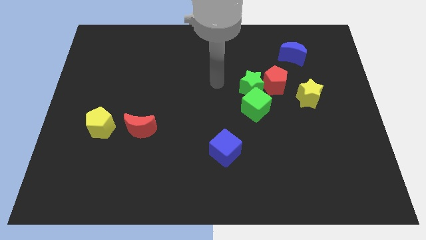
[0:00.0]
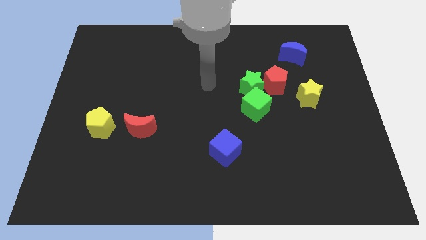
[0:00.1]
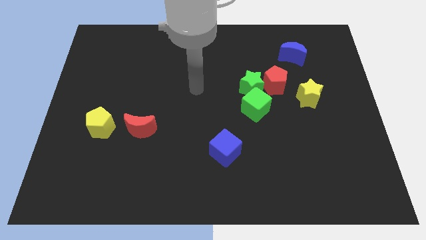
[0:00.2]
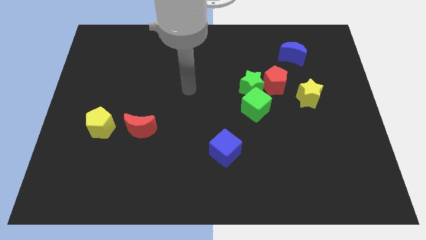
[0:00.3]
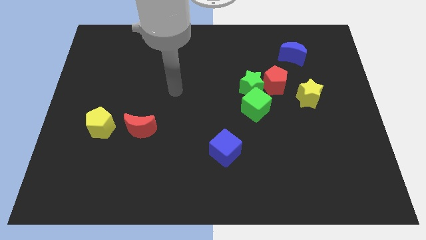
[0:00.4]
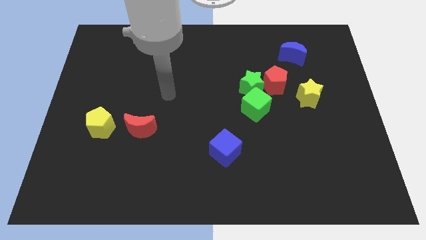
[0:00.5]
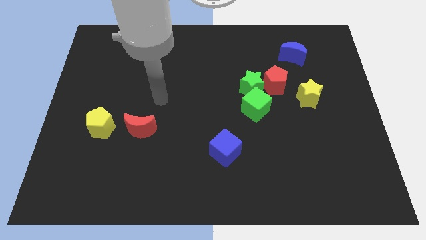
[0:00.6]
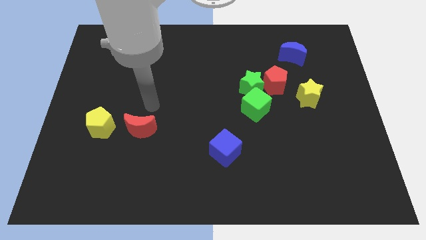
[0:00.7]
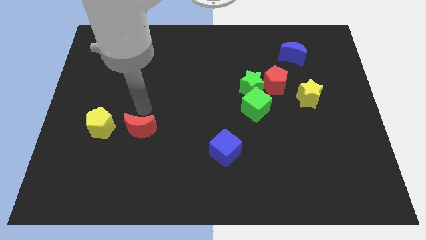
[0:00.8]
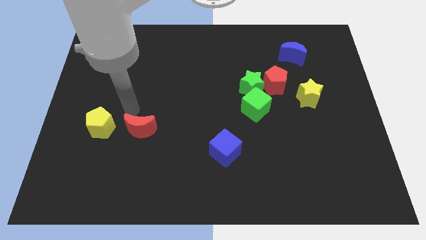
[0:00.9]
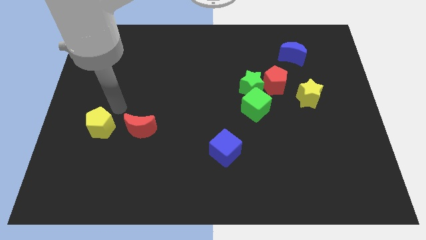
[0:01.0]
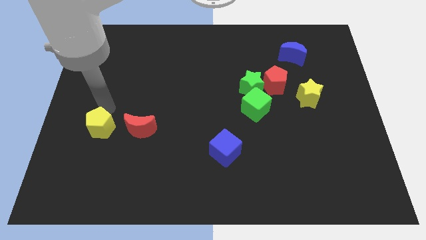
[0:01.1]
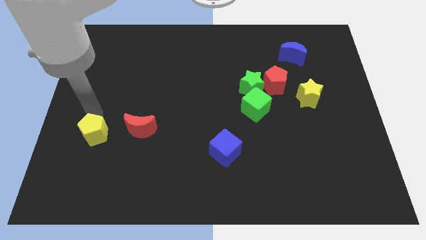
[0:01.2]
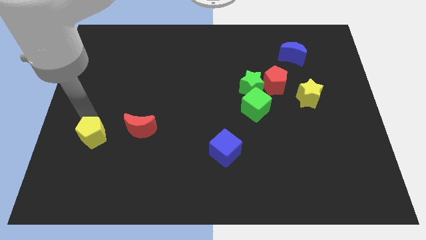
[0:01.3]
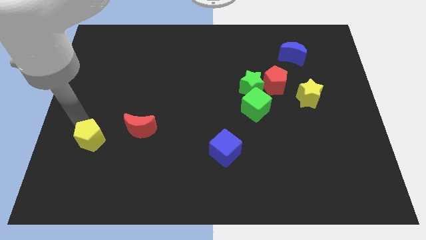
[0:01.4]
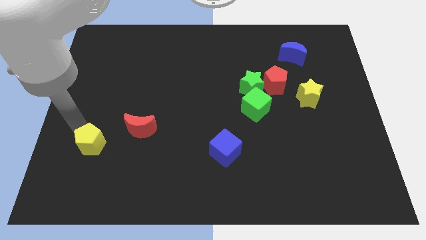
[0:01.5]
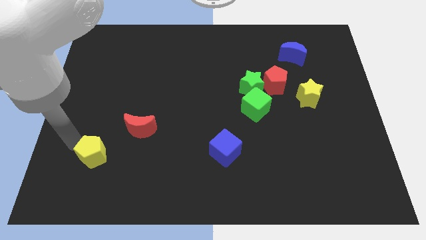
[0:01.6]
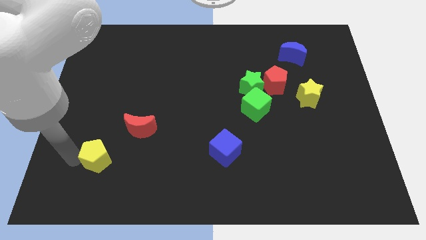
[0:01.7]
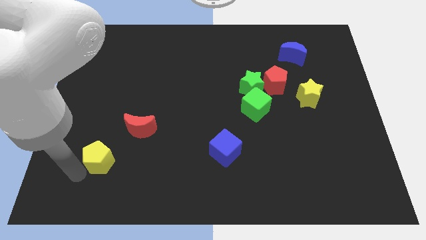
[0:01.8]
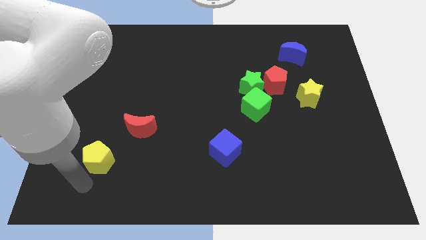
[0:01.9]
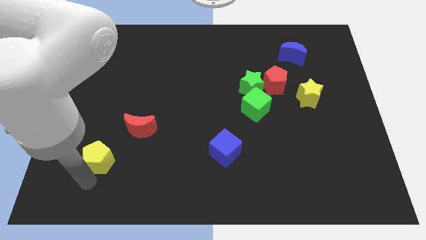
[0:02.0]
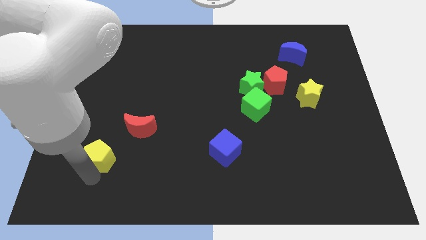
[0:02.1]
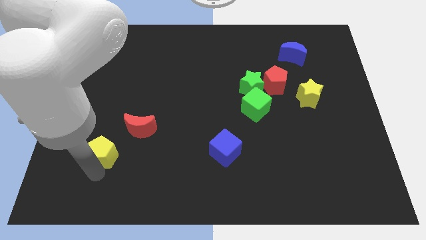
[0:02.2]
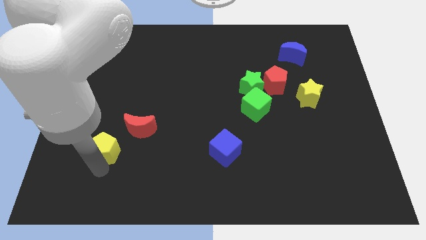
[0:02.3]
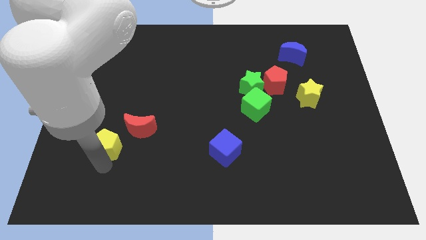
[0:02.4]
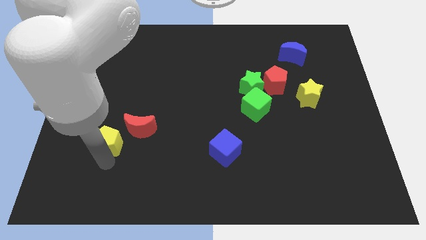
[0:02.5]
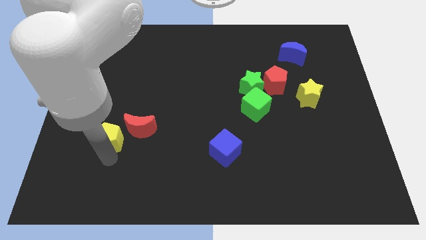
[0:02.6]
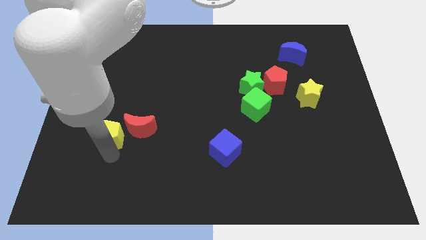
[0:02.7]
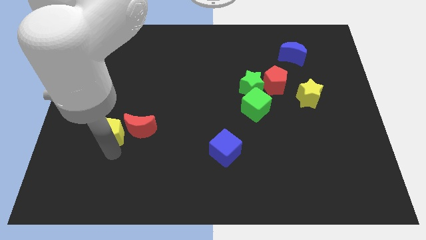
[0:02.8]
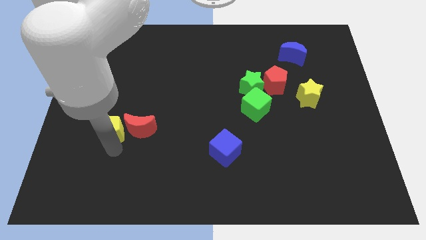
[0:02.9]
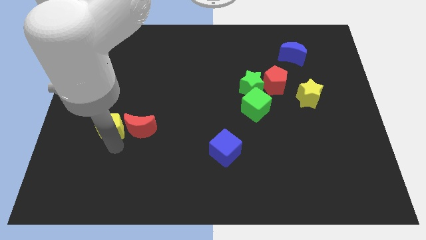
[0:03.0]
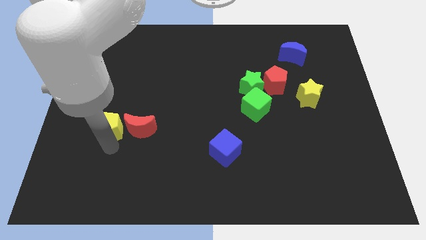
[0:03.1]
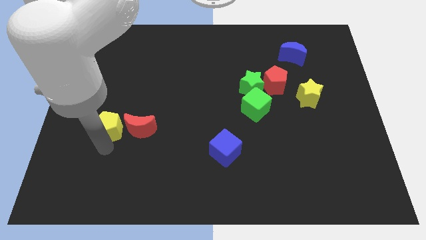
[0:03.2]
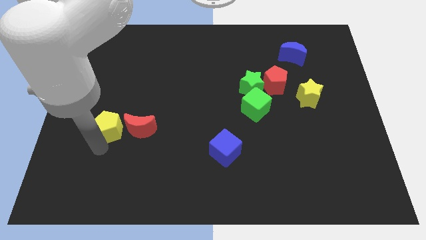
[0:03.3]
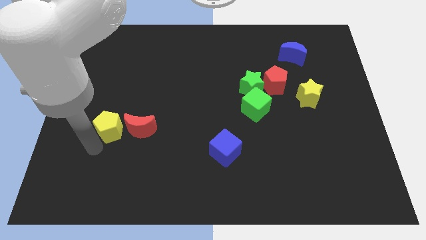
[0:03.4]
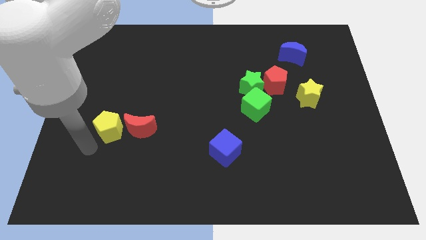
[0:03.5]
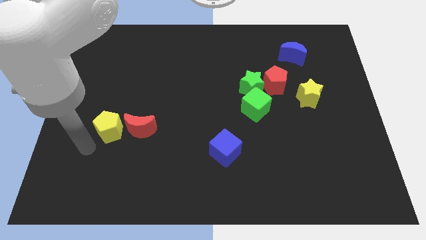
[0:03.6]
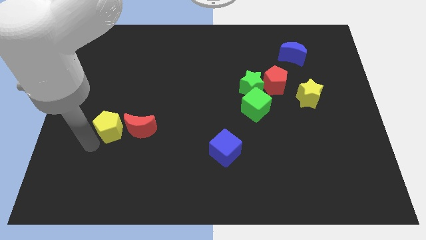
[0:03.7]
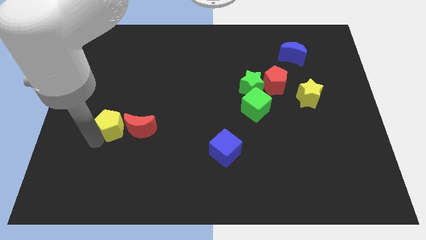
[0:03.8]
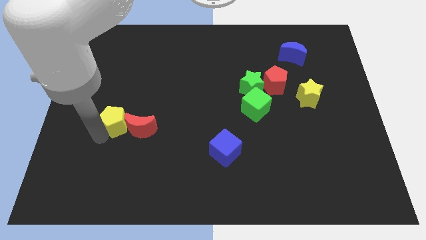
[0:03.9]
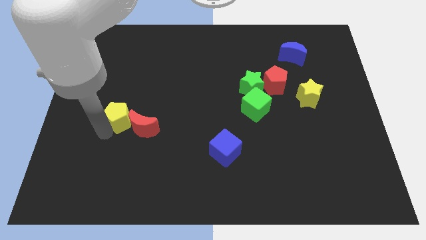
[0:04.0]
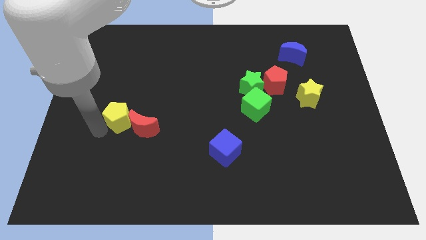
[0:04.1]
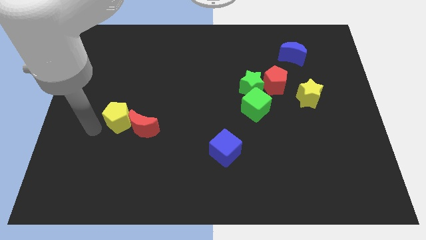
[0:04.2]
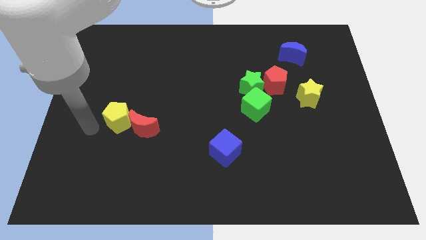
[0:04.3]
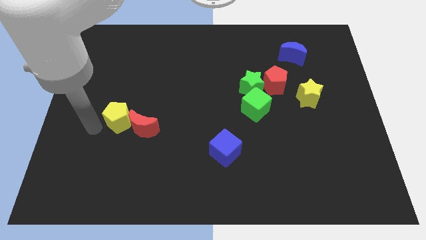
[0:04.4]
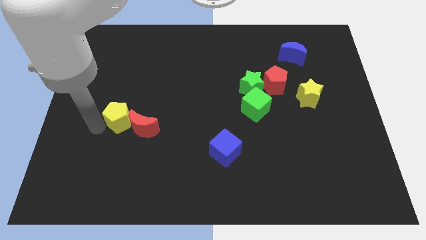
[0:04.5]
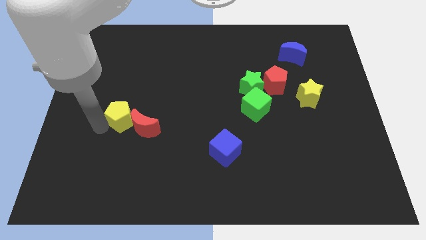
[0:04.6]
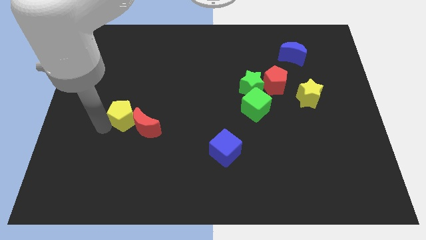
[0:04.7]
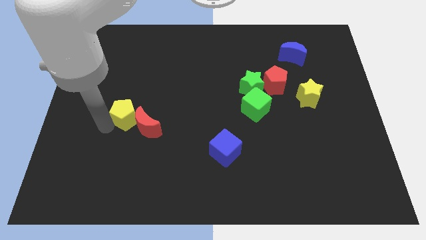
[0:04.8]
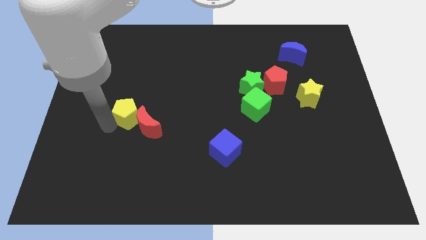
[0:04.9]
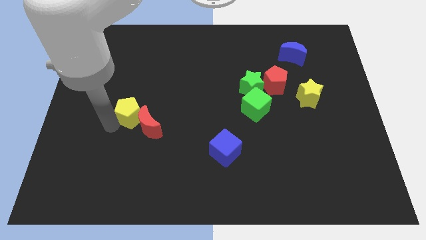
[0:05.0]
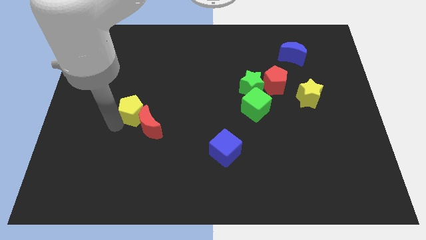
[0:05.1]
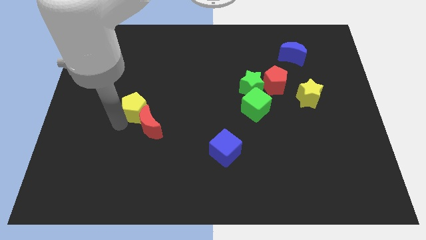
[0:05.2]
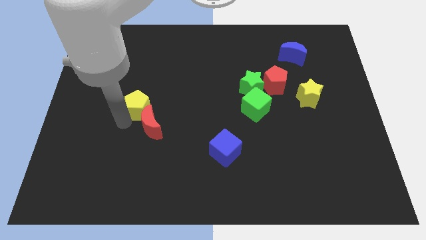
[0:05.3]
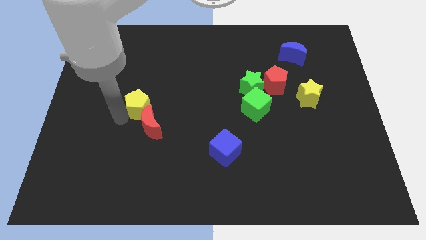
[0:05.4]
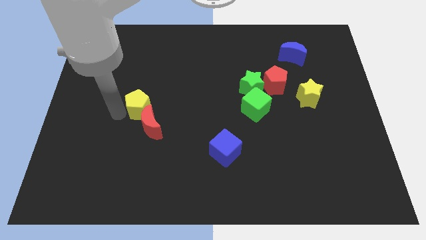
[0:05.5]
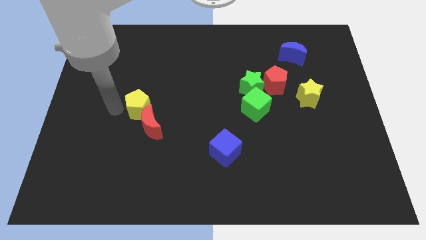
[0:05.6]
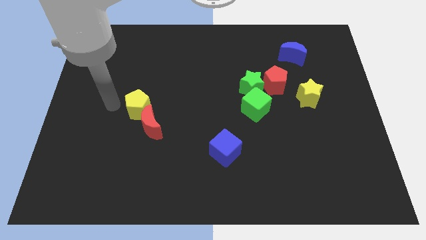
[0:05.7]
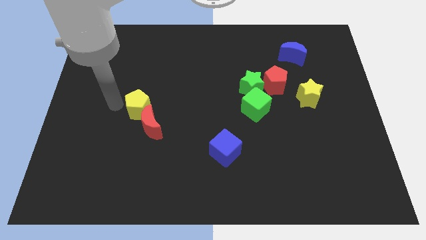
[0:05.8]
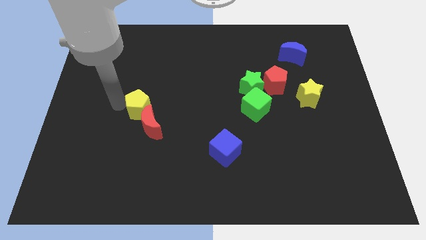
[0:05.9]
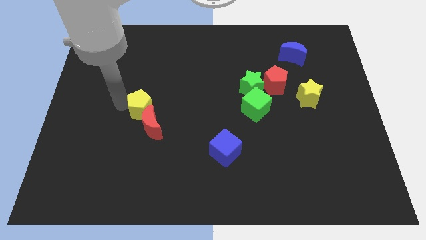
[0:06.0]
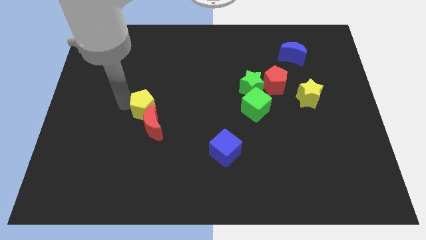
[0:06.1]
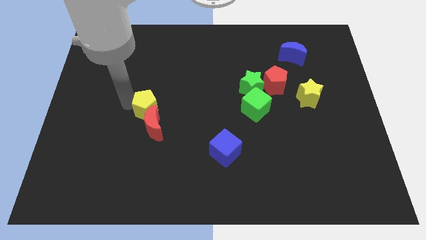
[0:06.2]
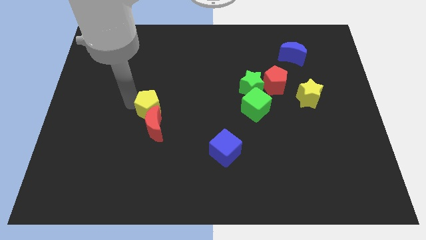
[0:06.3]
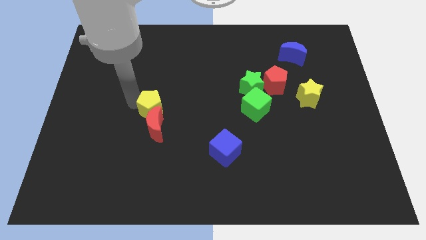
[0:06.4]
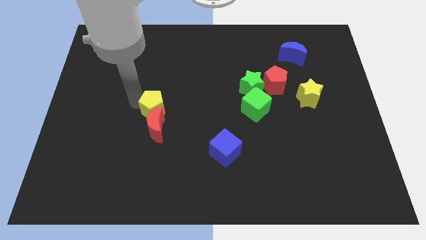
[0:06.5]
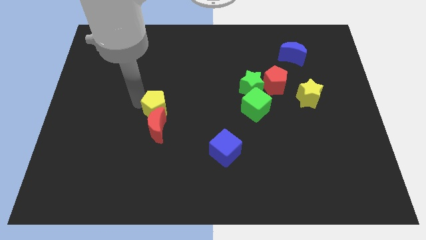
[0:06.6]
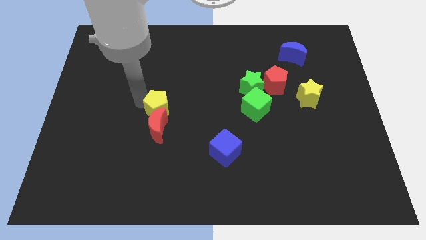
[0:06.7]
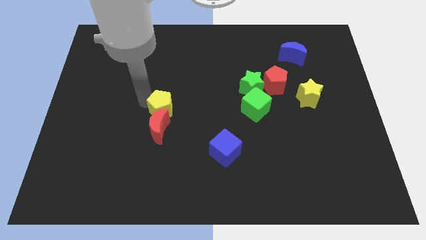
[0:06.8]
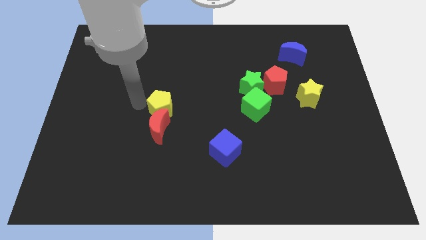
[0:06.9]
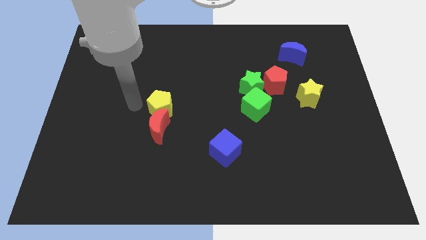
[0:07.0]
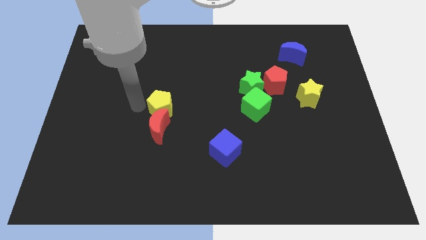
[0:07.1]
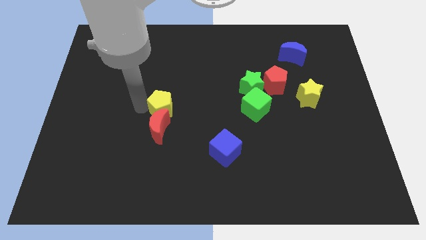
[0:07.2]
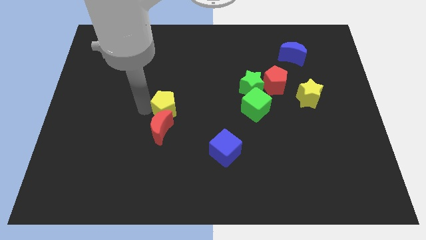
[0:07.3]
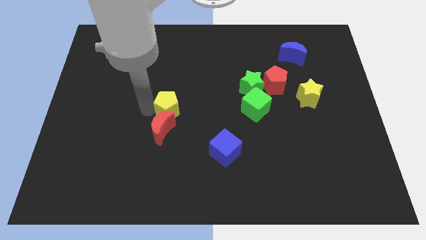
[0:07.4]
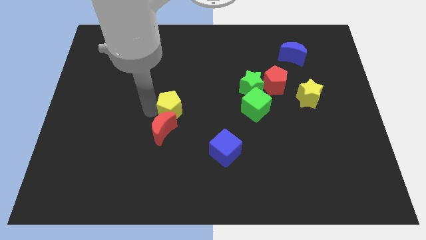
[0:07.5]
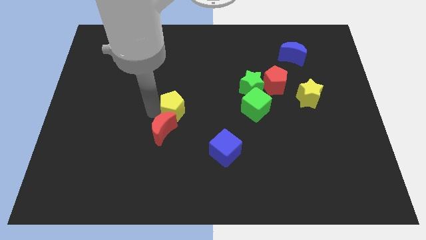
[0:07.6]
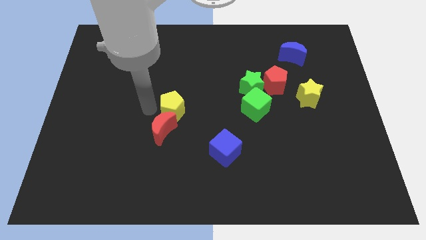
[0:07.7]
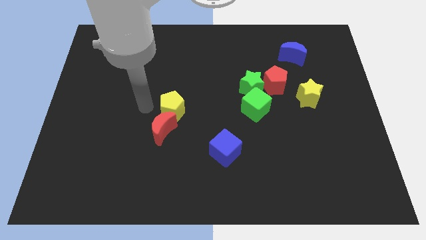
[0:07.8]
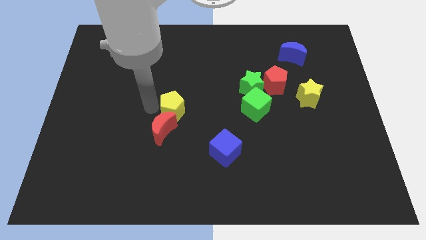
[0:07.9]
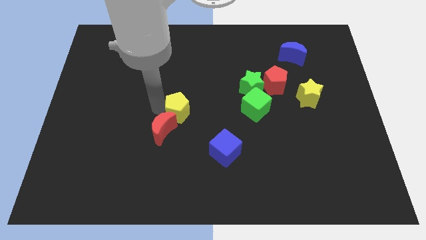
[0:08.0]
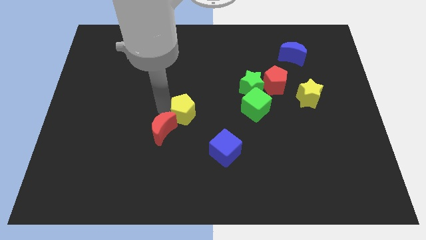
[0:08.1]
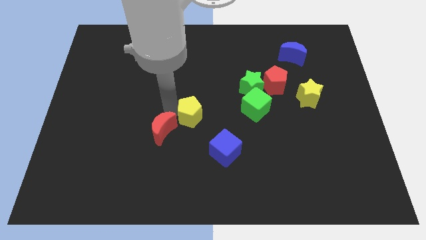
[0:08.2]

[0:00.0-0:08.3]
put the yellow pentagon just left of the green cube
